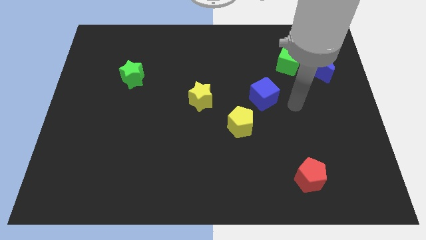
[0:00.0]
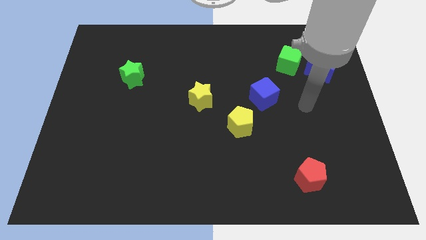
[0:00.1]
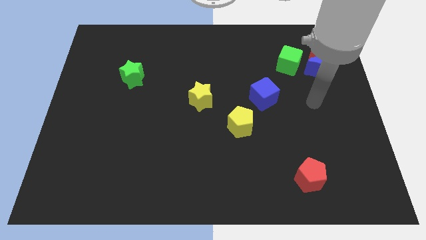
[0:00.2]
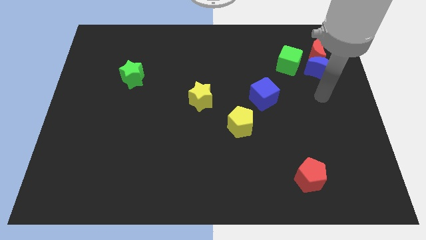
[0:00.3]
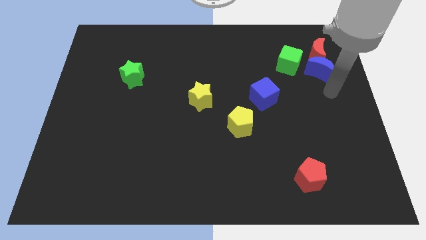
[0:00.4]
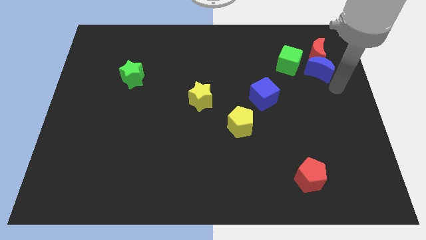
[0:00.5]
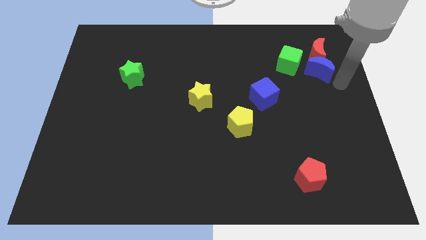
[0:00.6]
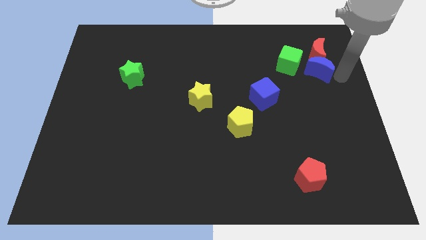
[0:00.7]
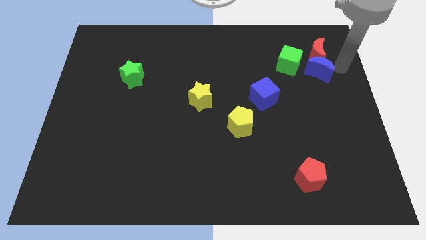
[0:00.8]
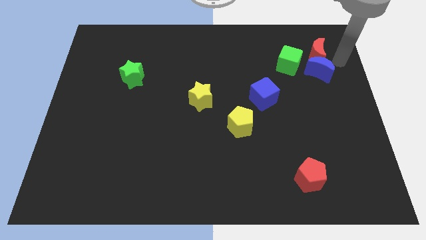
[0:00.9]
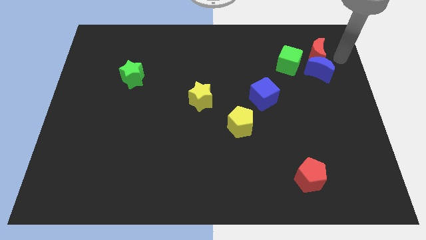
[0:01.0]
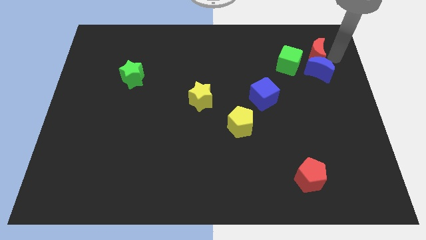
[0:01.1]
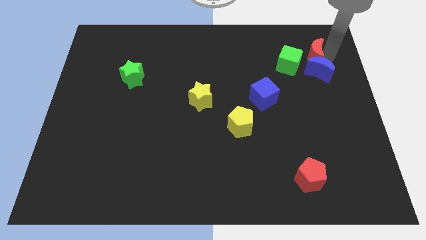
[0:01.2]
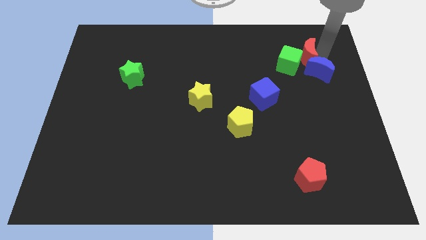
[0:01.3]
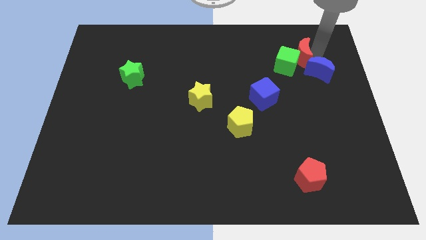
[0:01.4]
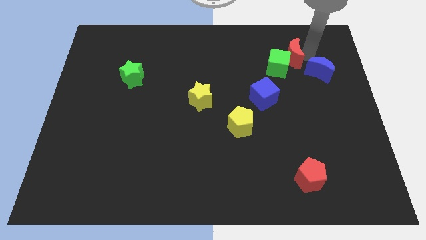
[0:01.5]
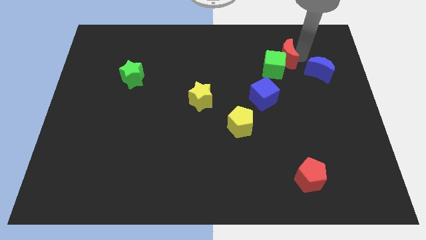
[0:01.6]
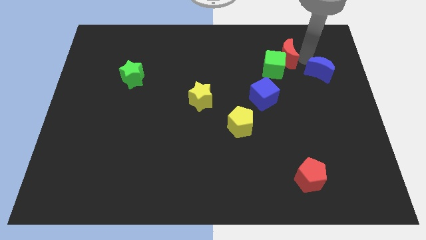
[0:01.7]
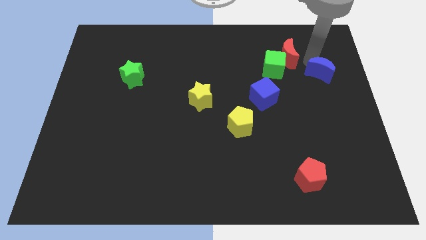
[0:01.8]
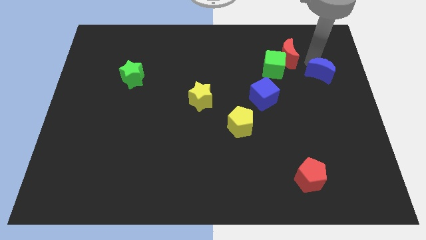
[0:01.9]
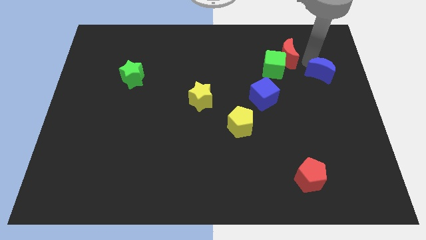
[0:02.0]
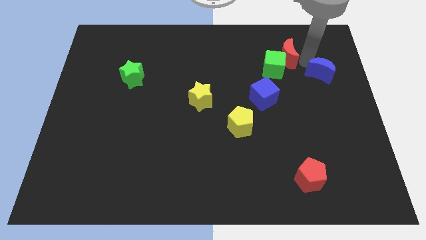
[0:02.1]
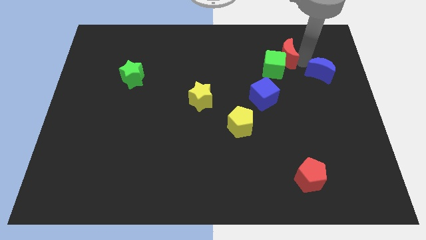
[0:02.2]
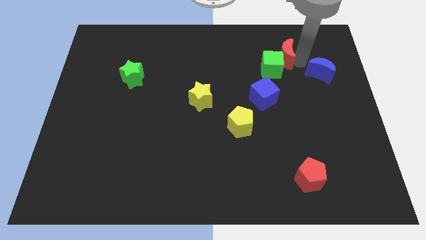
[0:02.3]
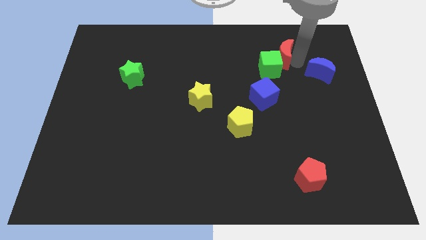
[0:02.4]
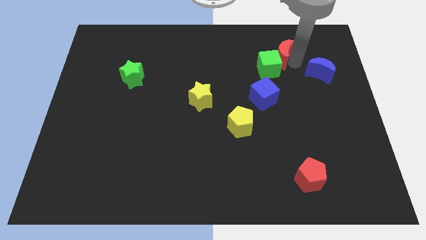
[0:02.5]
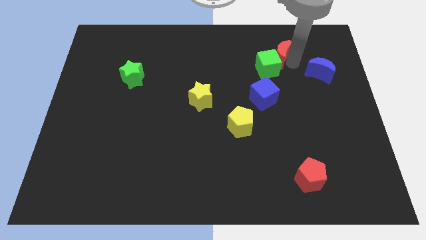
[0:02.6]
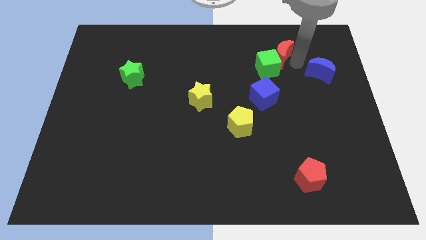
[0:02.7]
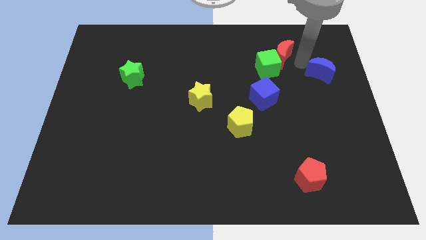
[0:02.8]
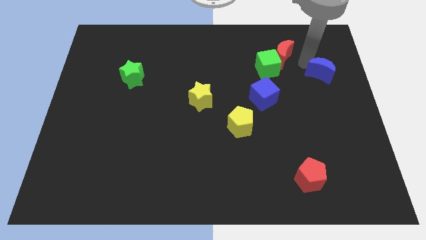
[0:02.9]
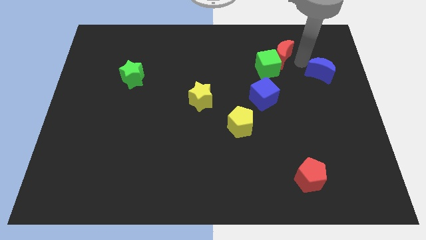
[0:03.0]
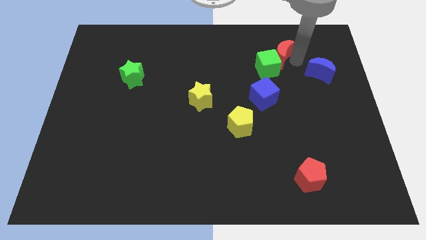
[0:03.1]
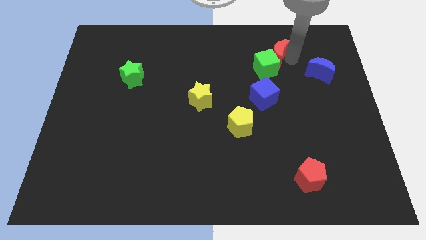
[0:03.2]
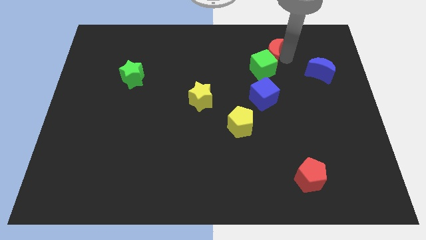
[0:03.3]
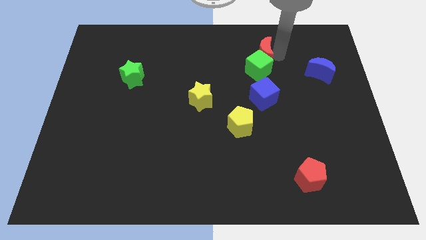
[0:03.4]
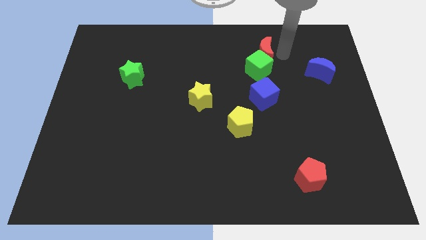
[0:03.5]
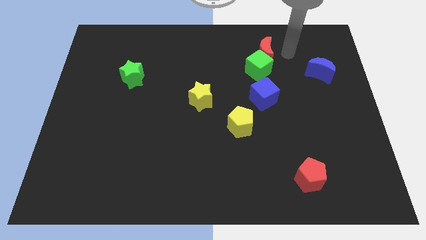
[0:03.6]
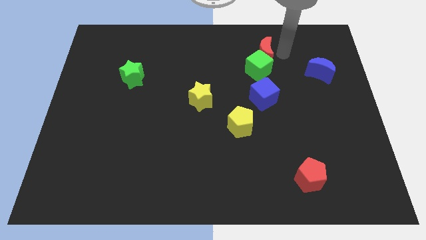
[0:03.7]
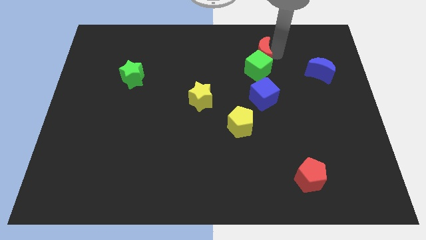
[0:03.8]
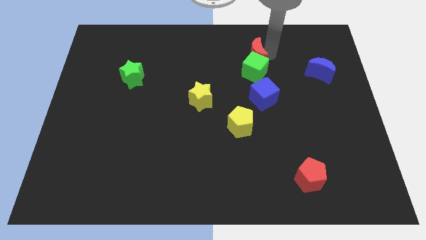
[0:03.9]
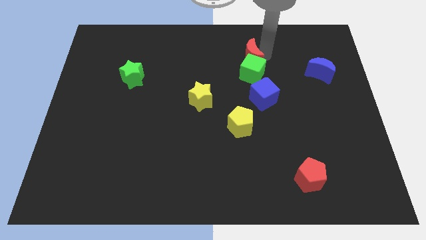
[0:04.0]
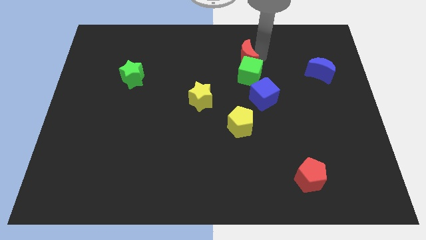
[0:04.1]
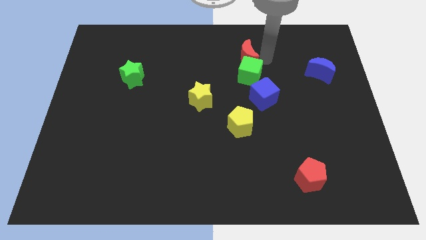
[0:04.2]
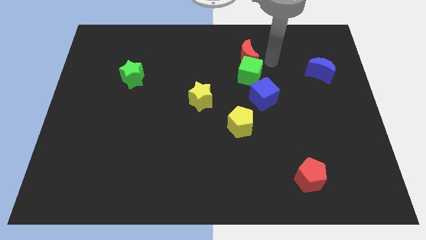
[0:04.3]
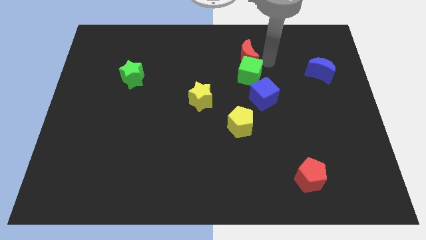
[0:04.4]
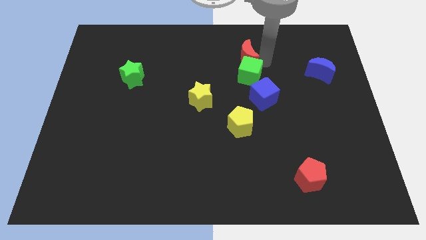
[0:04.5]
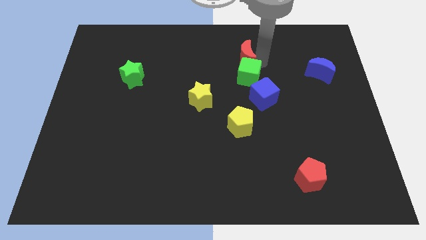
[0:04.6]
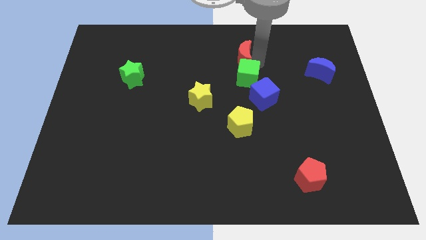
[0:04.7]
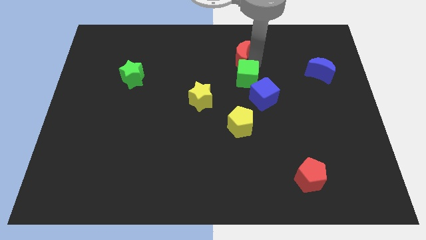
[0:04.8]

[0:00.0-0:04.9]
push the red moon left

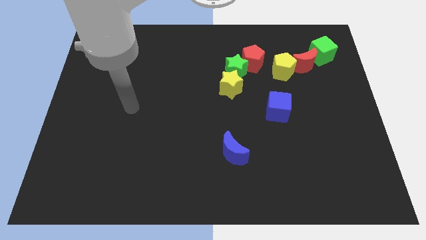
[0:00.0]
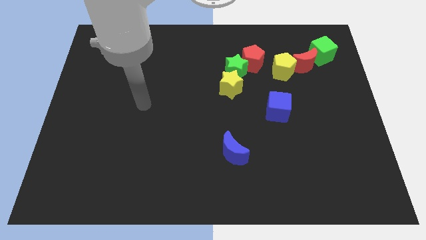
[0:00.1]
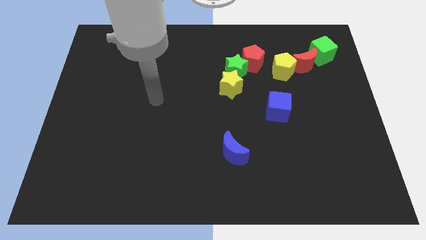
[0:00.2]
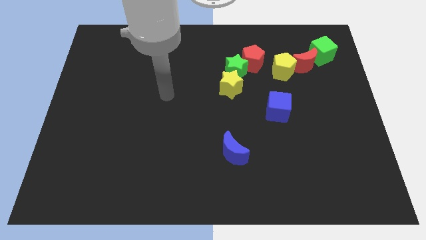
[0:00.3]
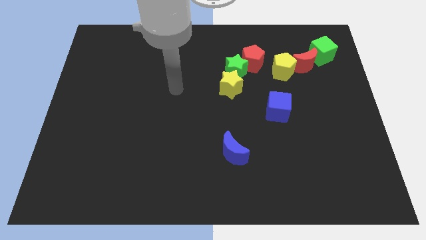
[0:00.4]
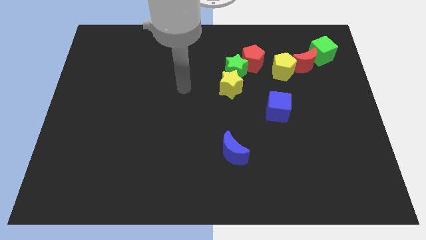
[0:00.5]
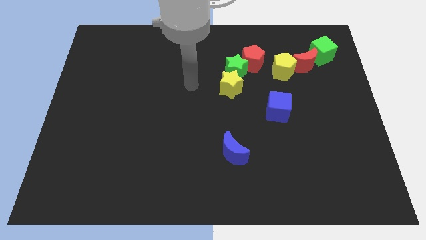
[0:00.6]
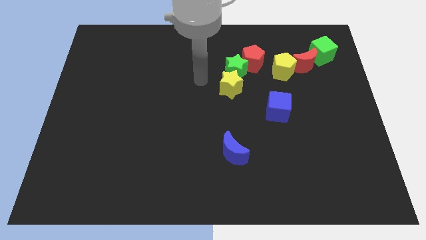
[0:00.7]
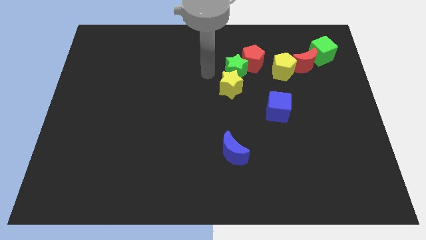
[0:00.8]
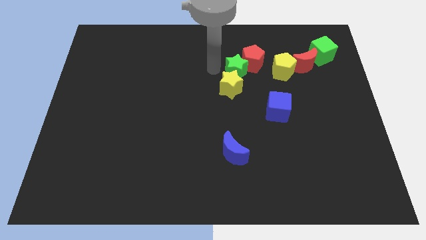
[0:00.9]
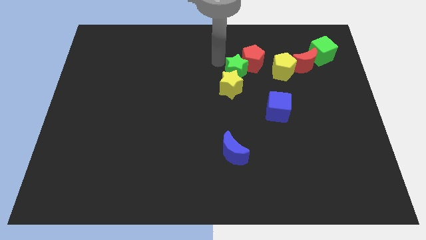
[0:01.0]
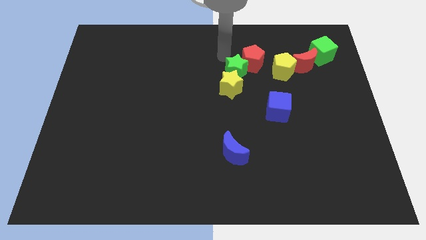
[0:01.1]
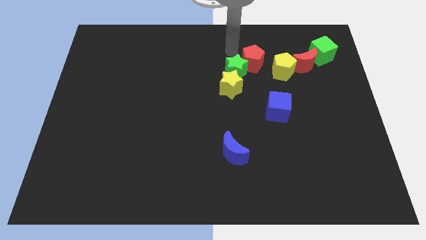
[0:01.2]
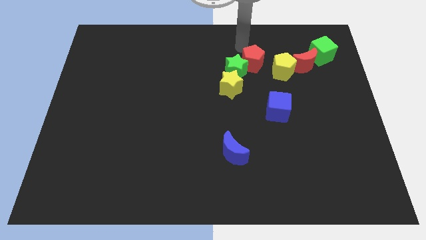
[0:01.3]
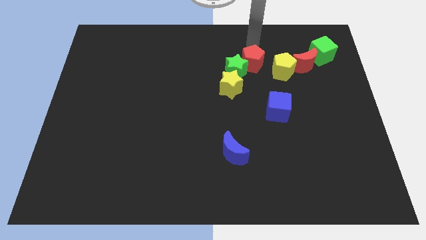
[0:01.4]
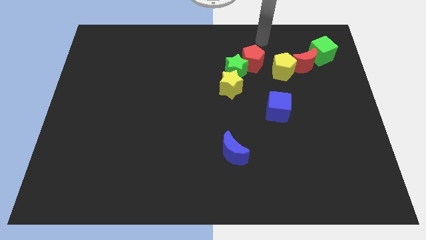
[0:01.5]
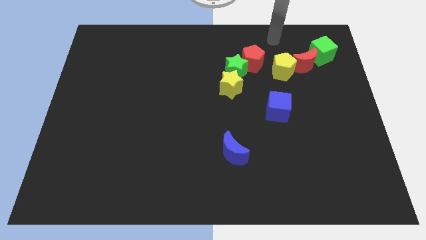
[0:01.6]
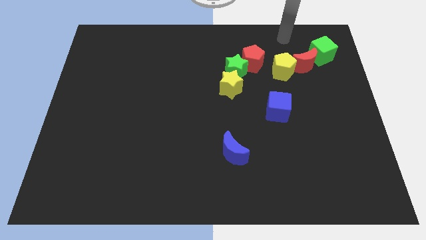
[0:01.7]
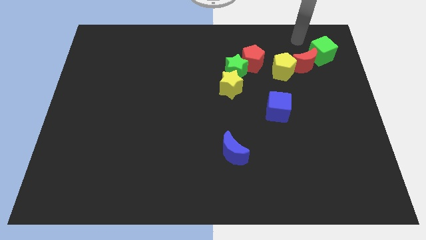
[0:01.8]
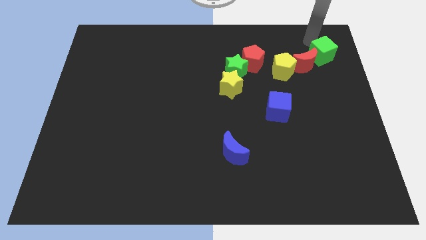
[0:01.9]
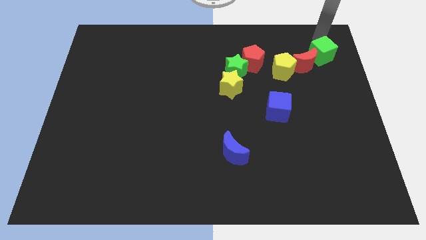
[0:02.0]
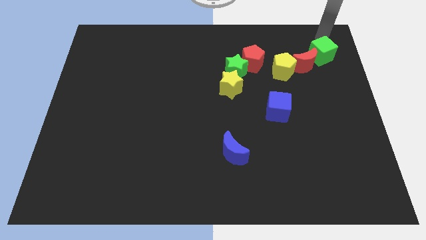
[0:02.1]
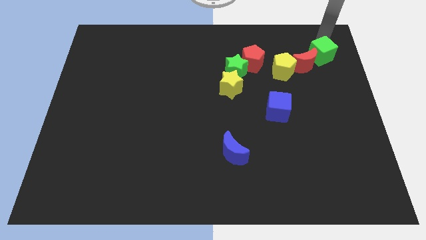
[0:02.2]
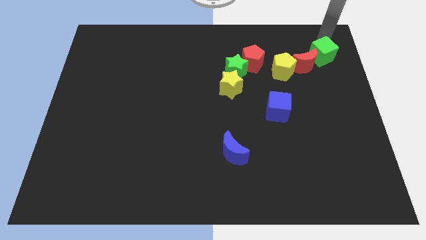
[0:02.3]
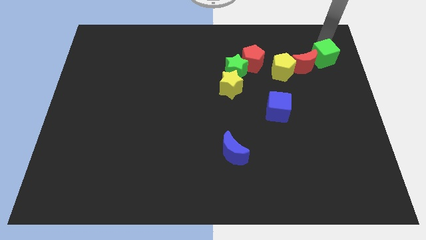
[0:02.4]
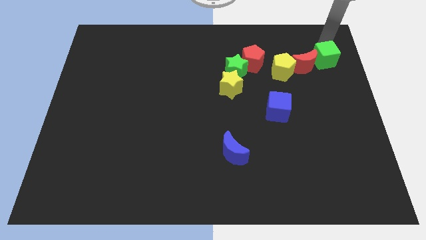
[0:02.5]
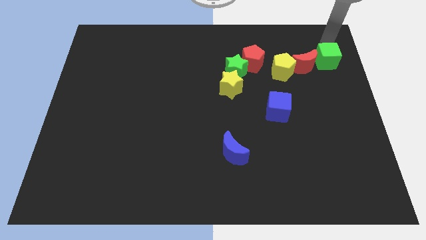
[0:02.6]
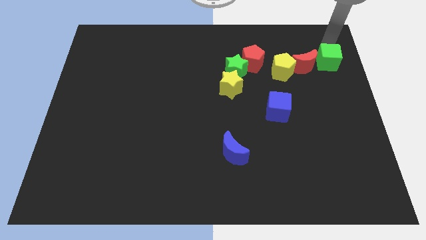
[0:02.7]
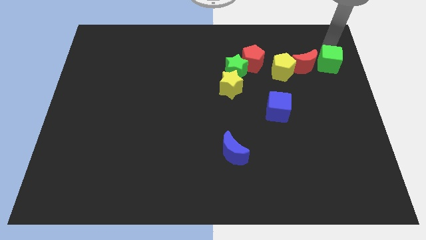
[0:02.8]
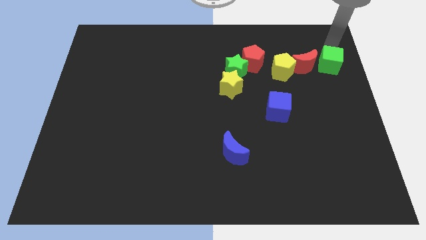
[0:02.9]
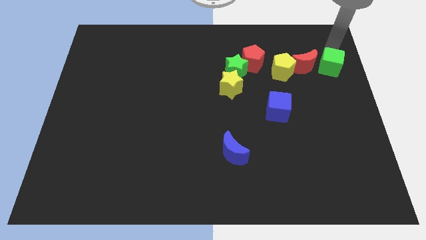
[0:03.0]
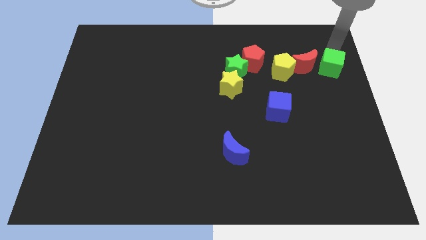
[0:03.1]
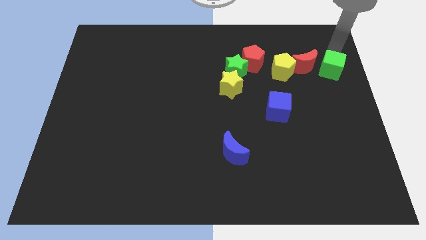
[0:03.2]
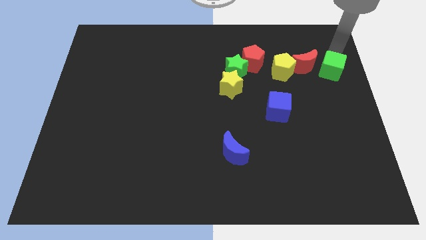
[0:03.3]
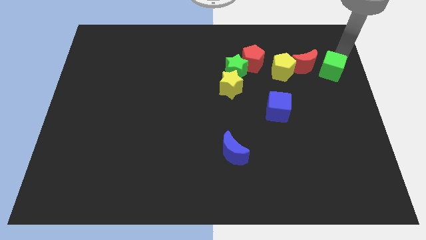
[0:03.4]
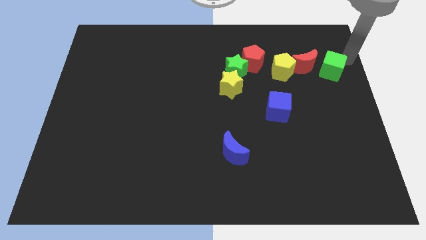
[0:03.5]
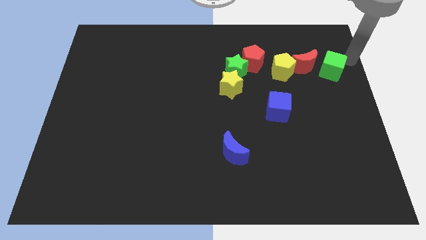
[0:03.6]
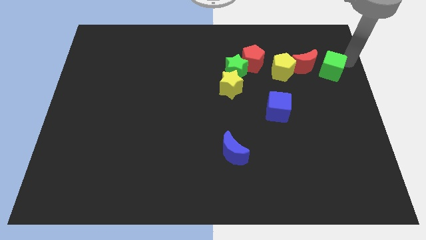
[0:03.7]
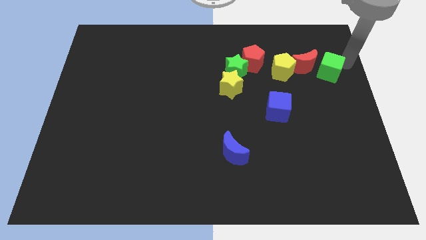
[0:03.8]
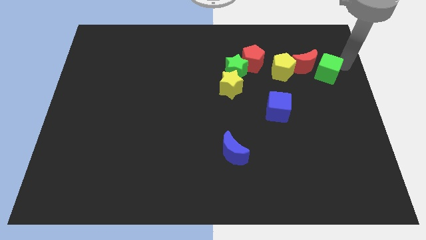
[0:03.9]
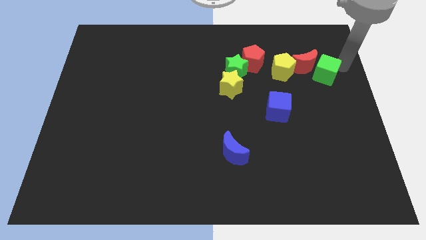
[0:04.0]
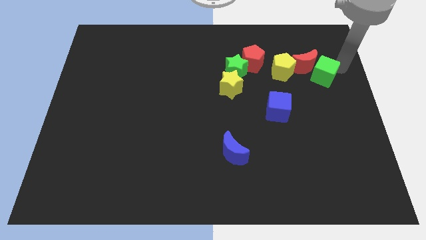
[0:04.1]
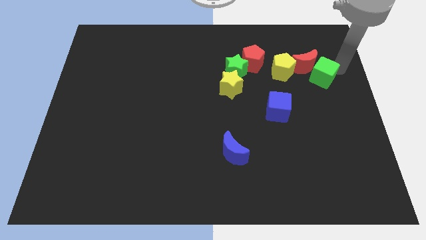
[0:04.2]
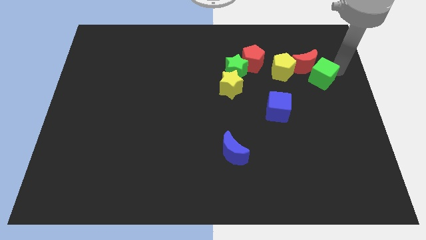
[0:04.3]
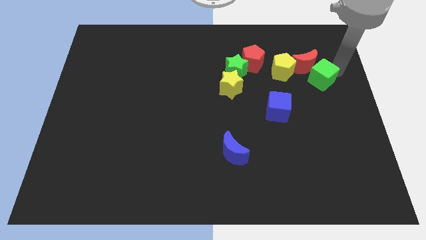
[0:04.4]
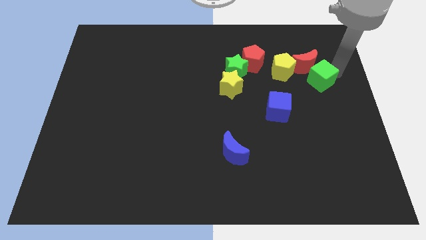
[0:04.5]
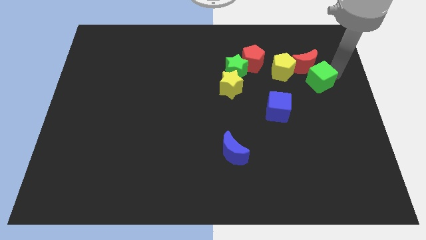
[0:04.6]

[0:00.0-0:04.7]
slightly slide the green cube downwards and left diagonally
